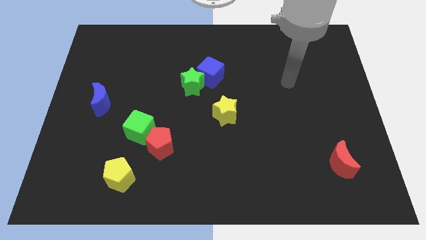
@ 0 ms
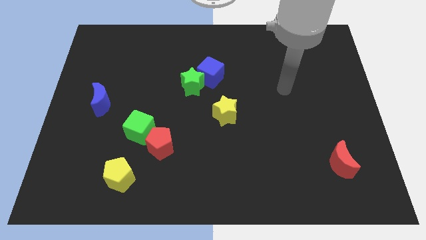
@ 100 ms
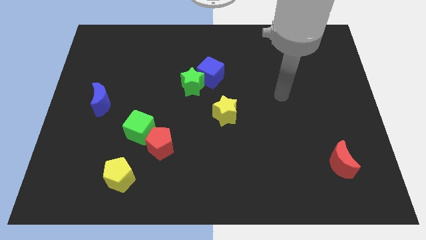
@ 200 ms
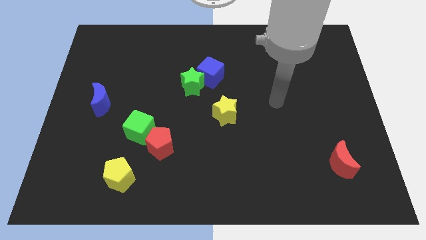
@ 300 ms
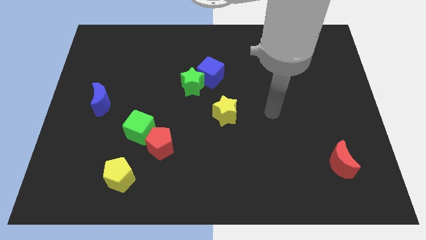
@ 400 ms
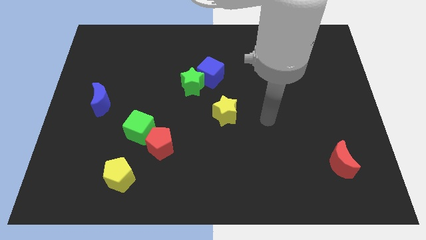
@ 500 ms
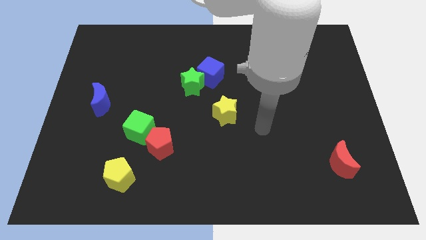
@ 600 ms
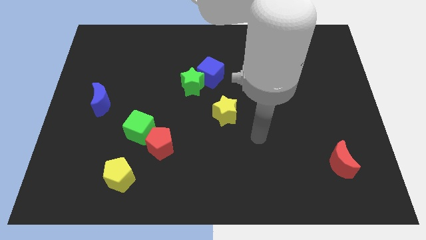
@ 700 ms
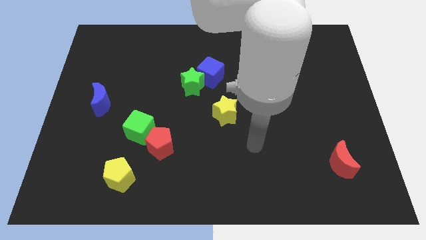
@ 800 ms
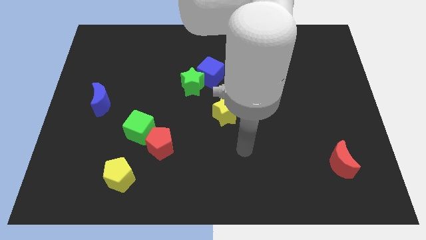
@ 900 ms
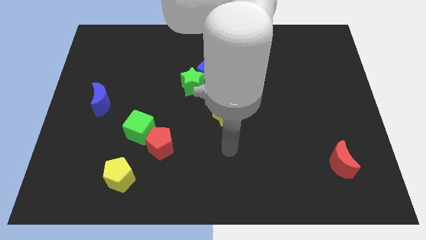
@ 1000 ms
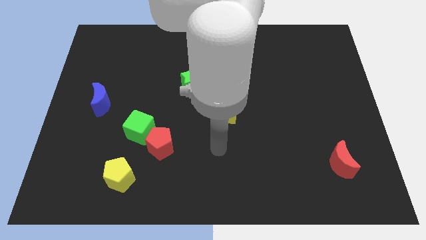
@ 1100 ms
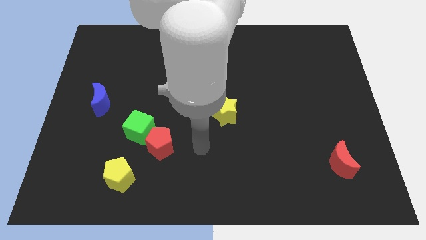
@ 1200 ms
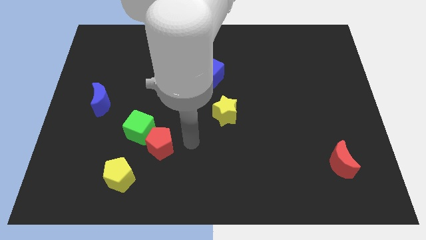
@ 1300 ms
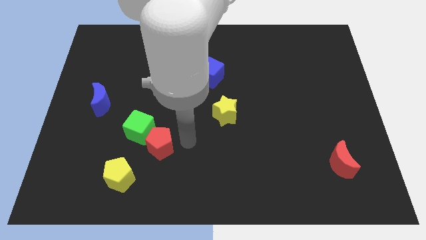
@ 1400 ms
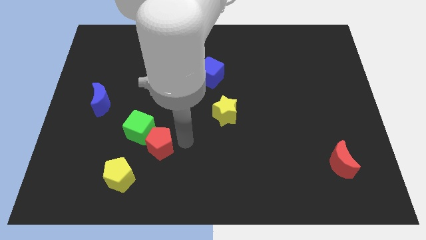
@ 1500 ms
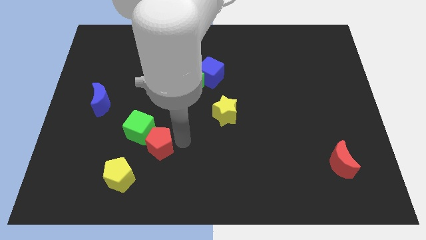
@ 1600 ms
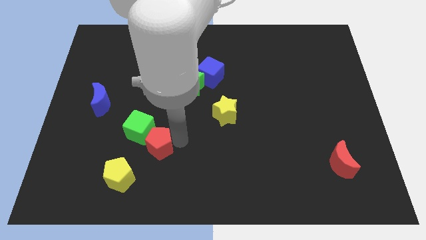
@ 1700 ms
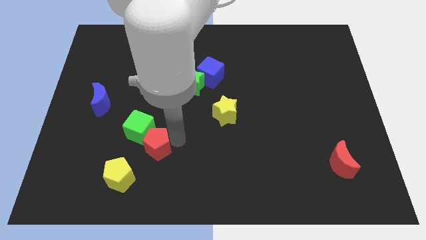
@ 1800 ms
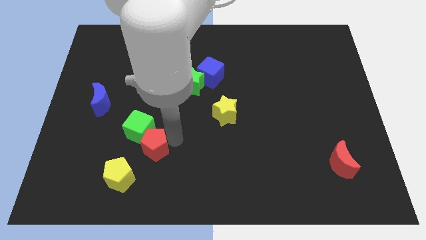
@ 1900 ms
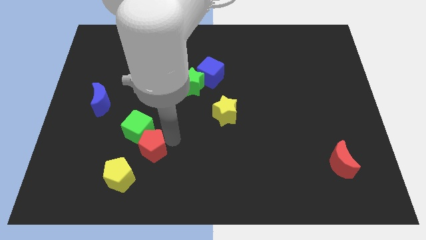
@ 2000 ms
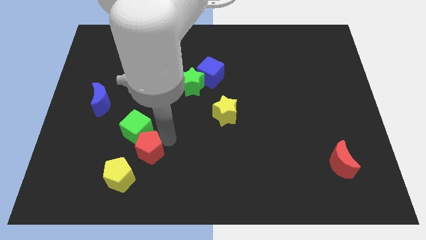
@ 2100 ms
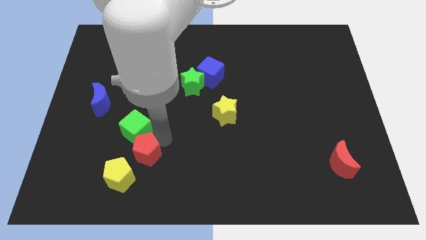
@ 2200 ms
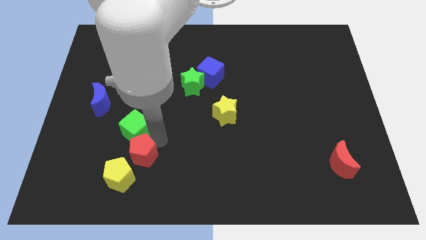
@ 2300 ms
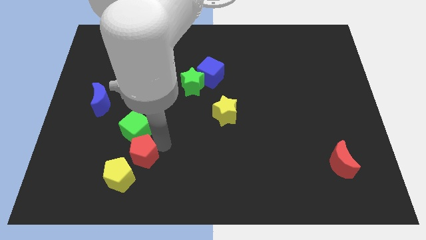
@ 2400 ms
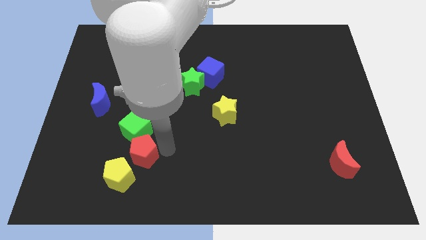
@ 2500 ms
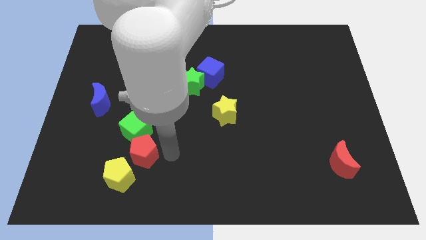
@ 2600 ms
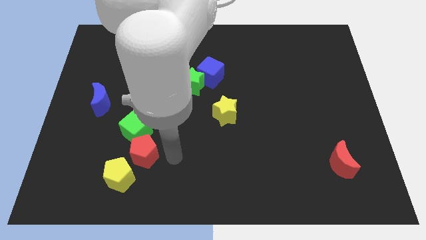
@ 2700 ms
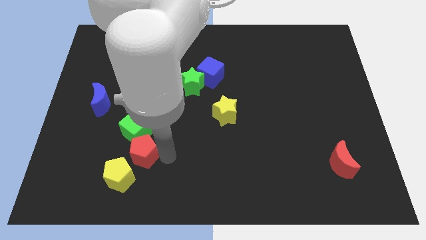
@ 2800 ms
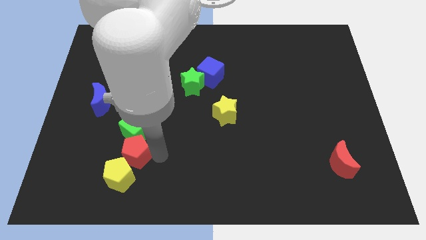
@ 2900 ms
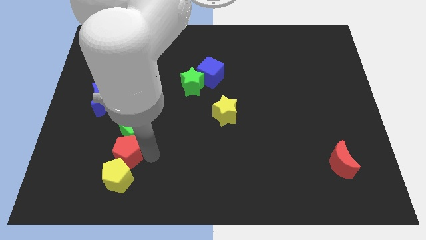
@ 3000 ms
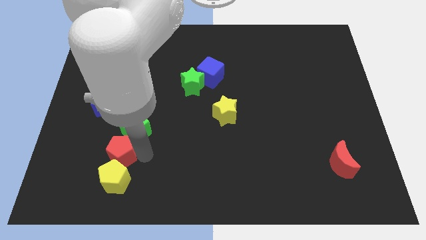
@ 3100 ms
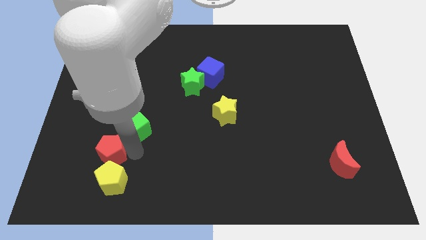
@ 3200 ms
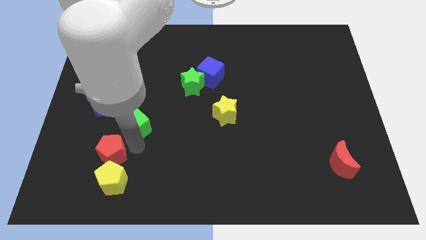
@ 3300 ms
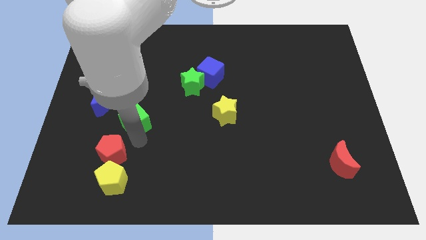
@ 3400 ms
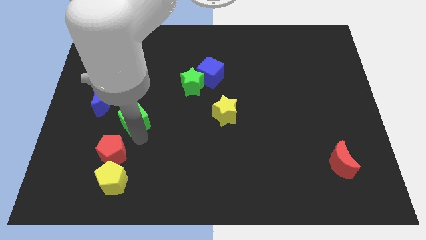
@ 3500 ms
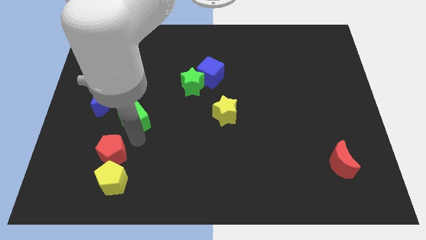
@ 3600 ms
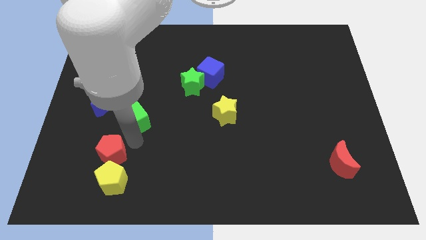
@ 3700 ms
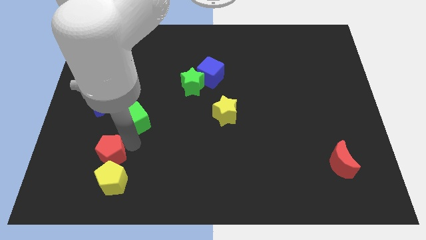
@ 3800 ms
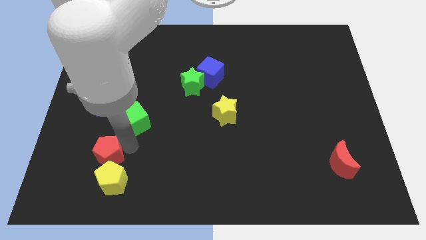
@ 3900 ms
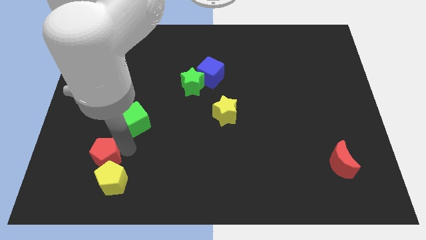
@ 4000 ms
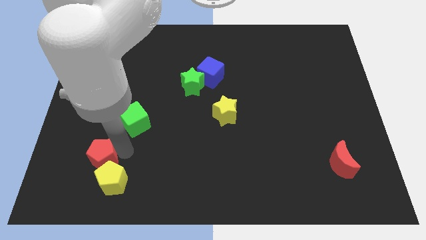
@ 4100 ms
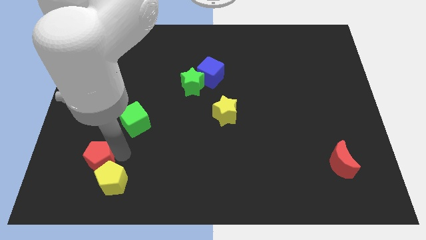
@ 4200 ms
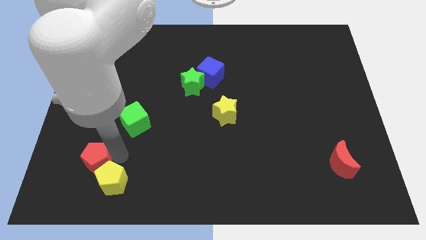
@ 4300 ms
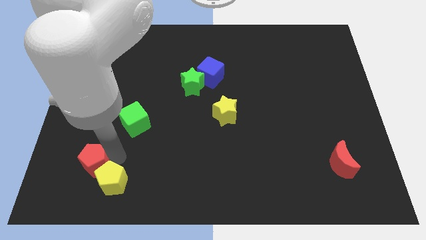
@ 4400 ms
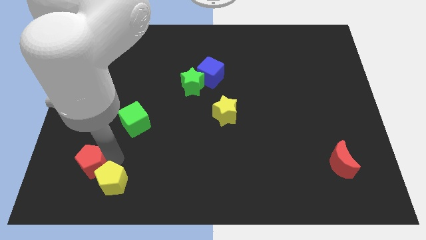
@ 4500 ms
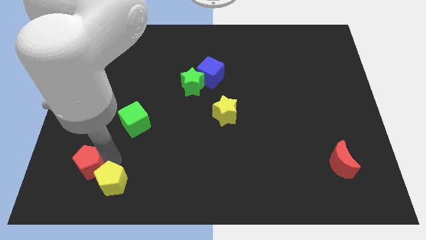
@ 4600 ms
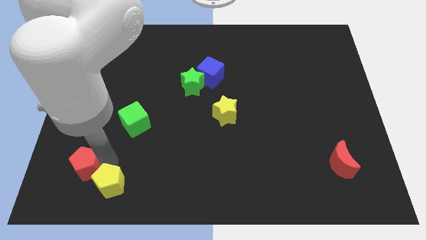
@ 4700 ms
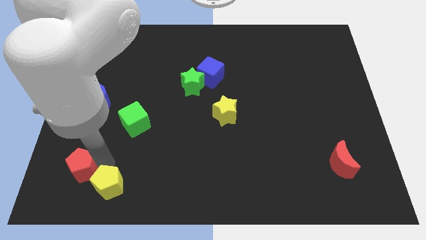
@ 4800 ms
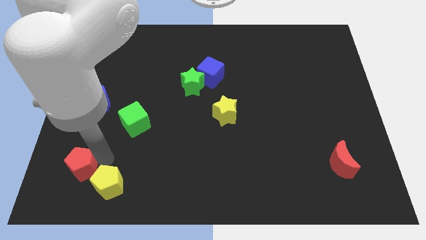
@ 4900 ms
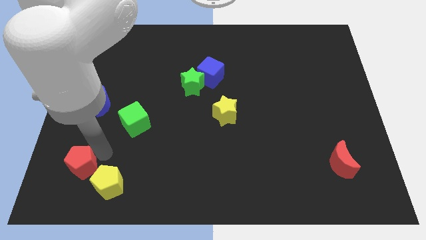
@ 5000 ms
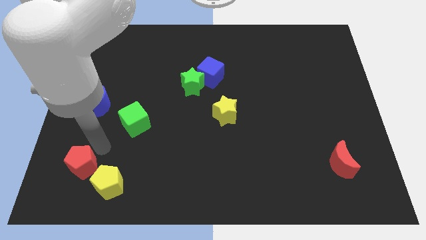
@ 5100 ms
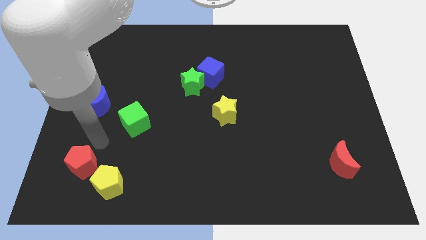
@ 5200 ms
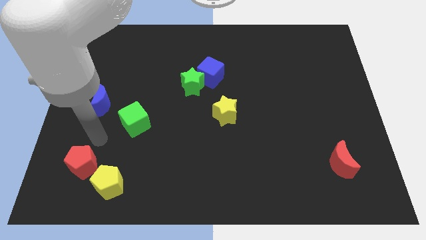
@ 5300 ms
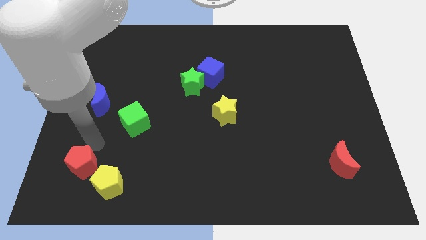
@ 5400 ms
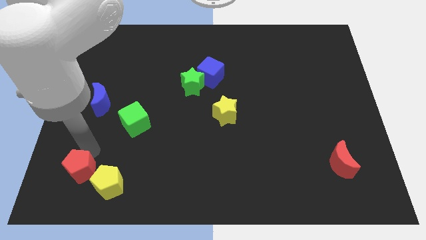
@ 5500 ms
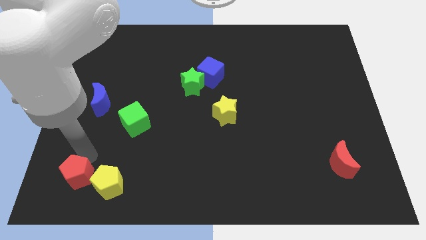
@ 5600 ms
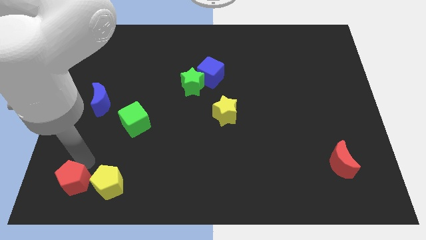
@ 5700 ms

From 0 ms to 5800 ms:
move the red pentagon to the bottom left corner
